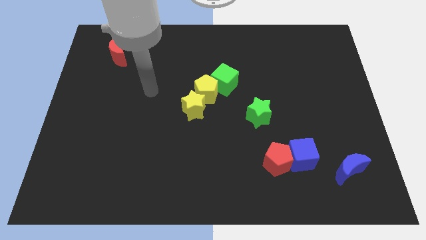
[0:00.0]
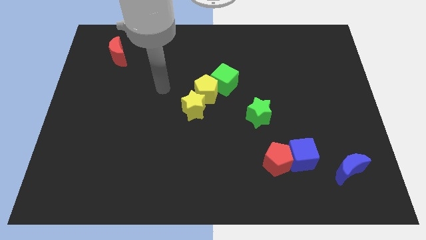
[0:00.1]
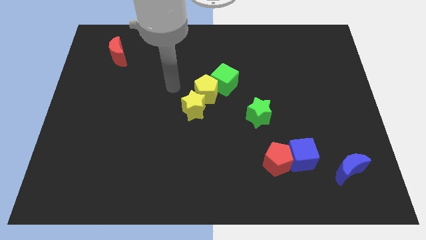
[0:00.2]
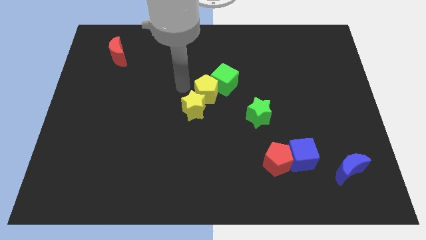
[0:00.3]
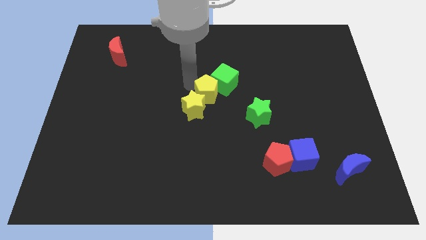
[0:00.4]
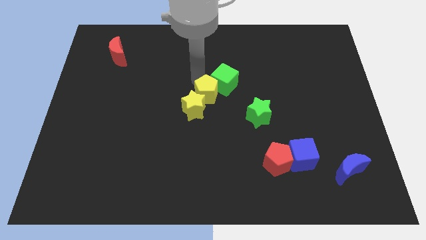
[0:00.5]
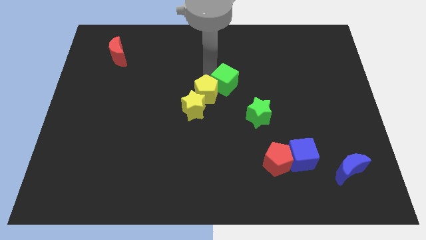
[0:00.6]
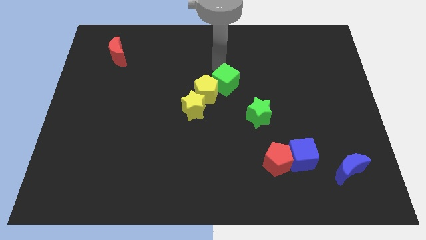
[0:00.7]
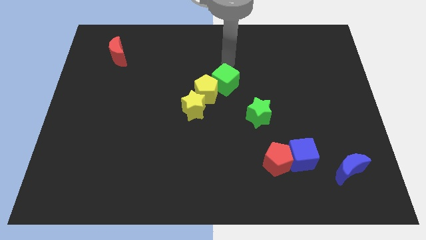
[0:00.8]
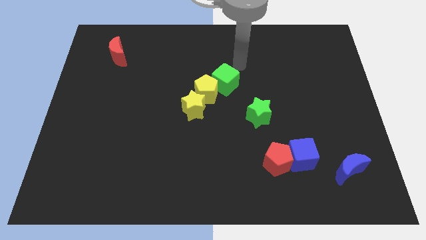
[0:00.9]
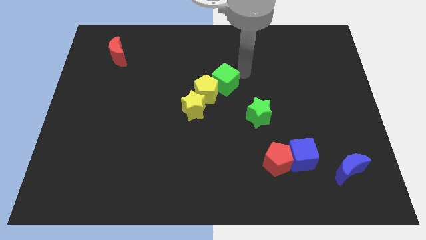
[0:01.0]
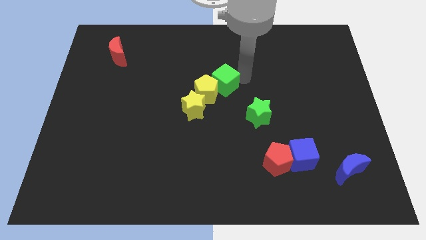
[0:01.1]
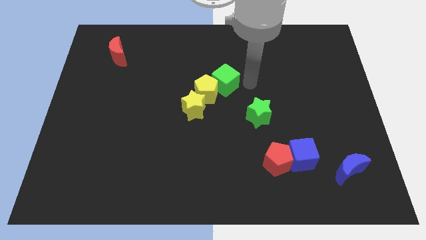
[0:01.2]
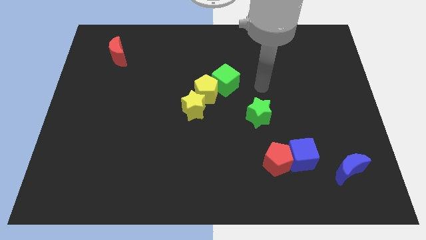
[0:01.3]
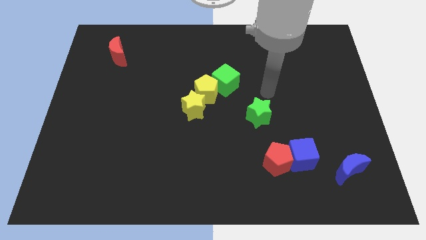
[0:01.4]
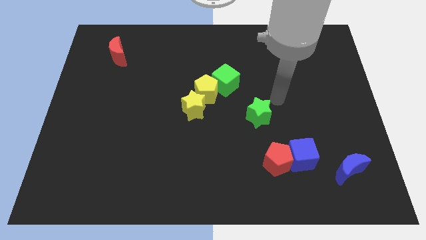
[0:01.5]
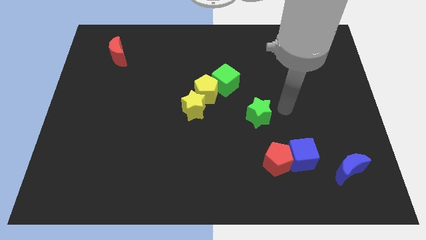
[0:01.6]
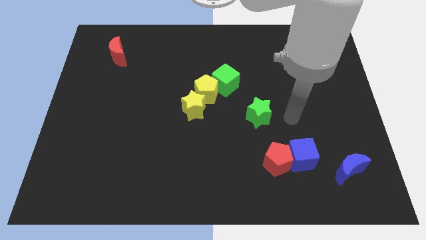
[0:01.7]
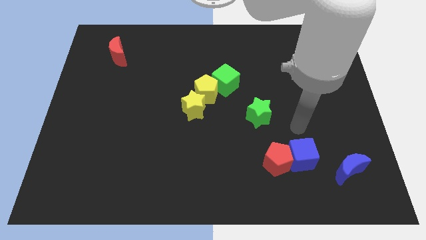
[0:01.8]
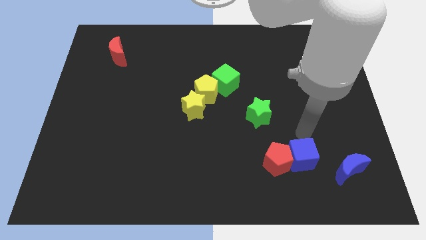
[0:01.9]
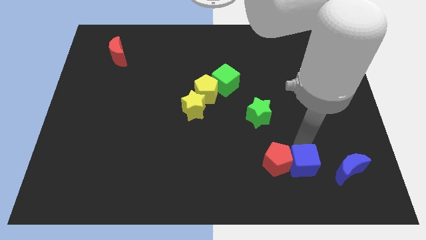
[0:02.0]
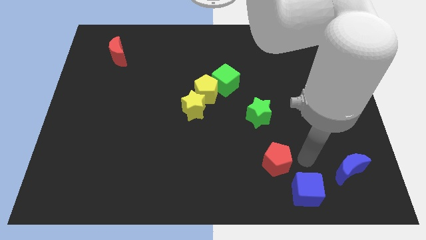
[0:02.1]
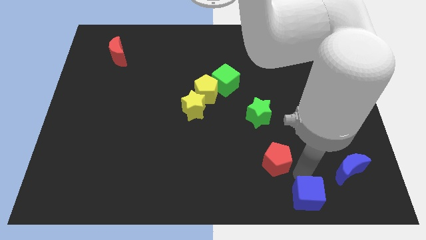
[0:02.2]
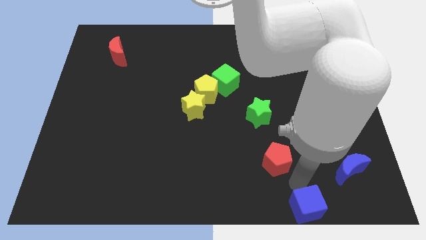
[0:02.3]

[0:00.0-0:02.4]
pull the red pentagon apart from the blue cube

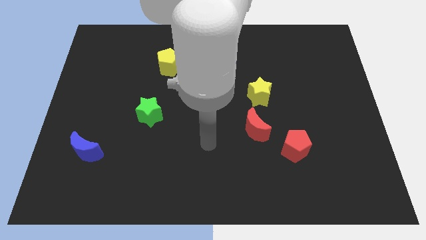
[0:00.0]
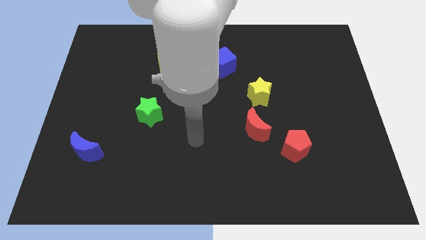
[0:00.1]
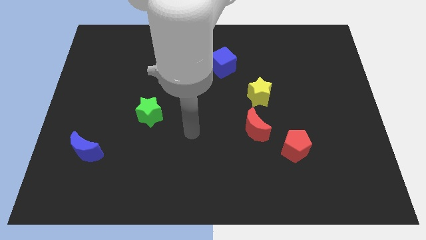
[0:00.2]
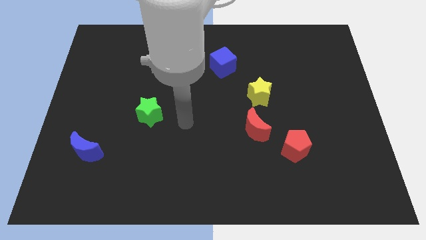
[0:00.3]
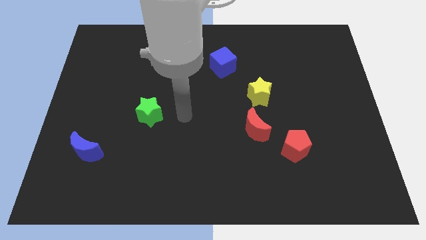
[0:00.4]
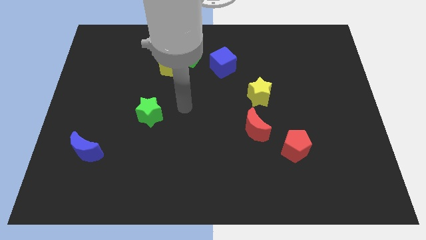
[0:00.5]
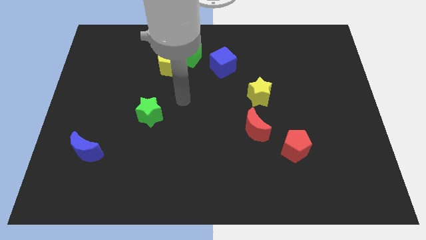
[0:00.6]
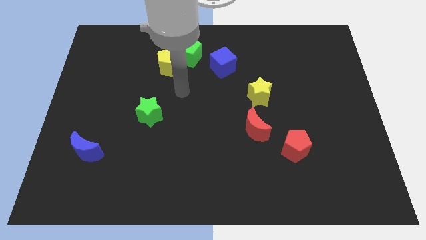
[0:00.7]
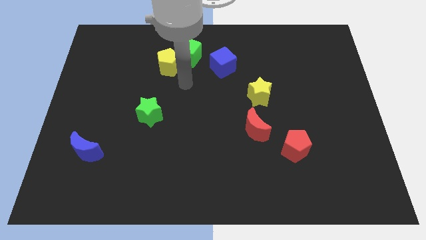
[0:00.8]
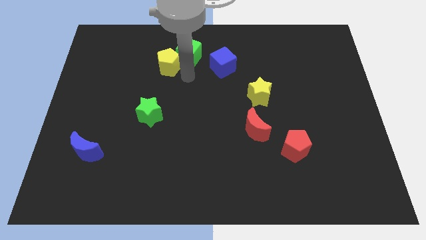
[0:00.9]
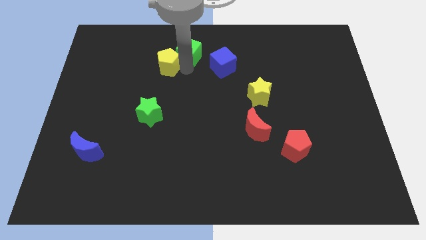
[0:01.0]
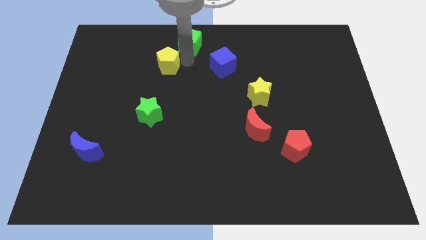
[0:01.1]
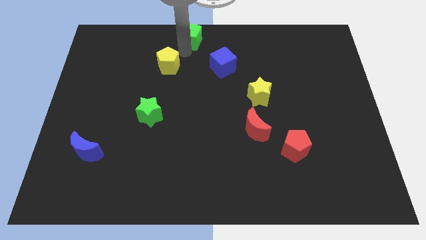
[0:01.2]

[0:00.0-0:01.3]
separate the yellow pentagon from the green cube

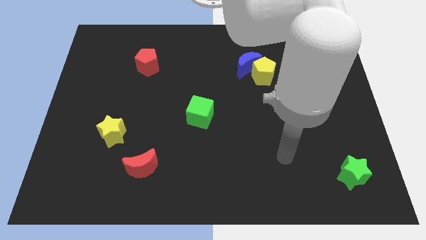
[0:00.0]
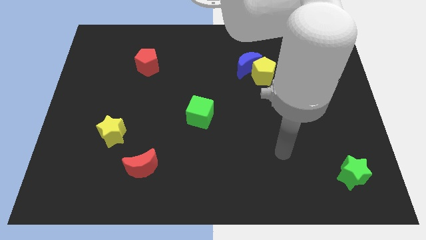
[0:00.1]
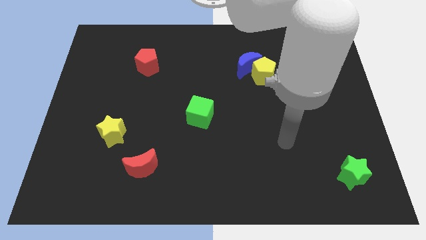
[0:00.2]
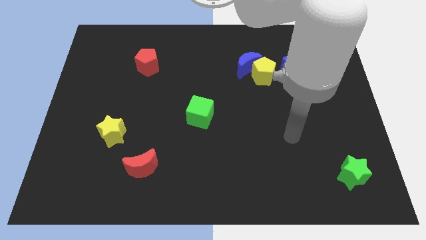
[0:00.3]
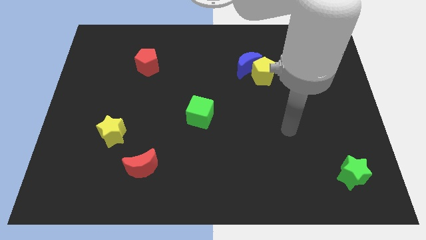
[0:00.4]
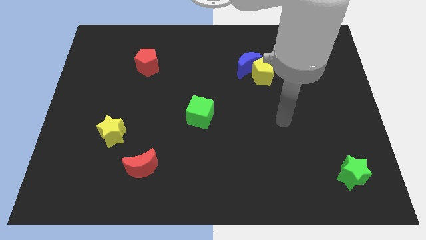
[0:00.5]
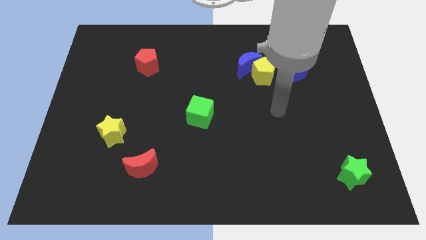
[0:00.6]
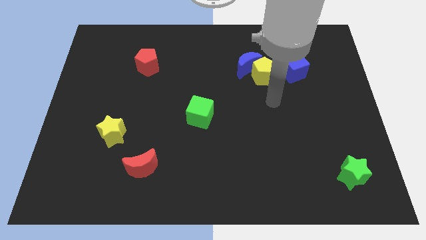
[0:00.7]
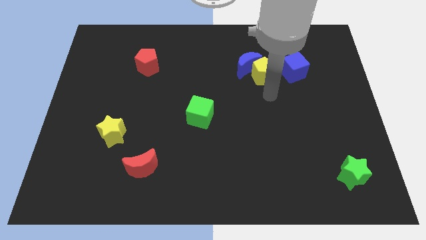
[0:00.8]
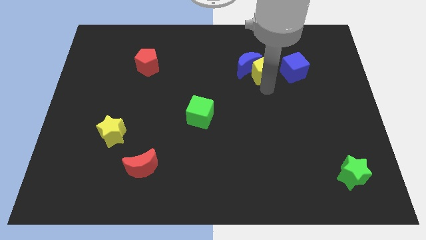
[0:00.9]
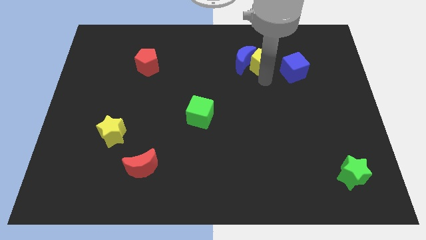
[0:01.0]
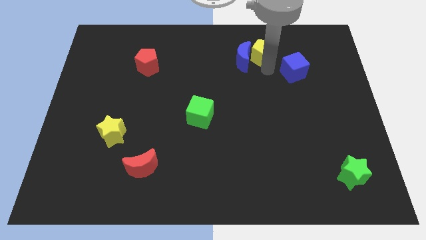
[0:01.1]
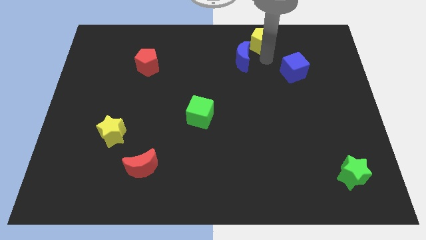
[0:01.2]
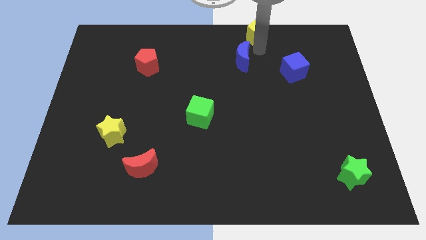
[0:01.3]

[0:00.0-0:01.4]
separate the blue moon from the yellow pentagon

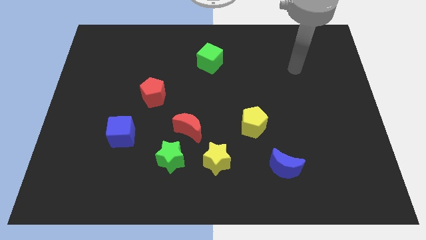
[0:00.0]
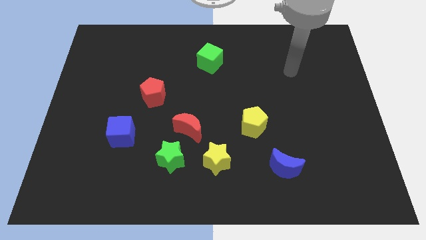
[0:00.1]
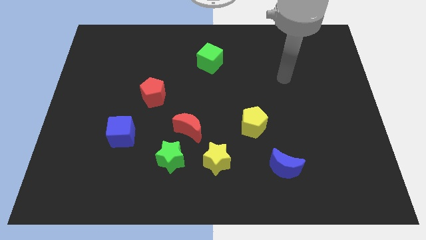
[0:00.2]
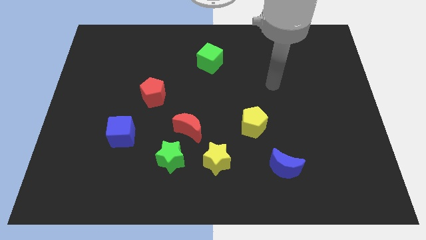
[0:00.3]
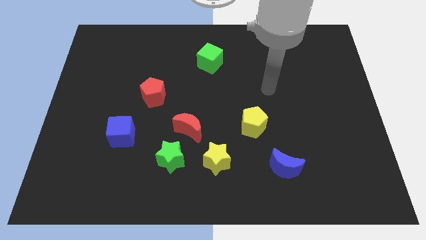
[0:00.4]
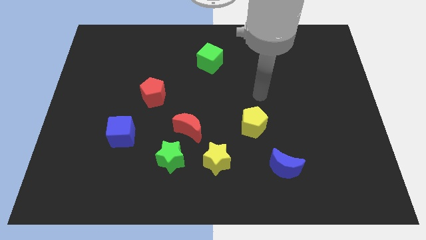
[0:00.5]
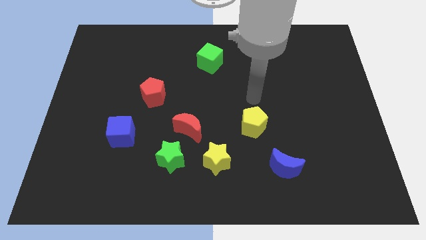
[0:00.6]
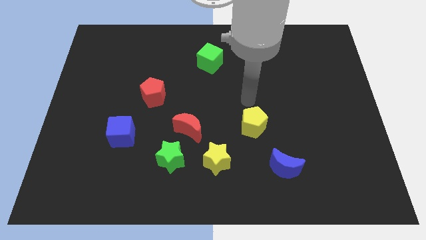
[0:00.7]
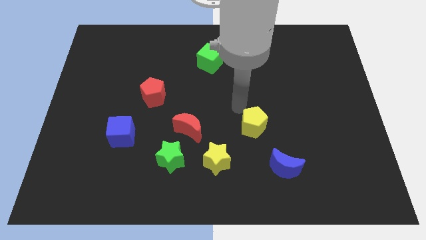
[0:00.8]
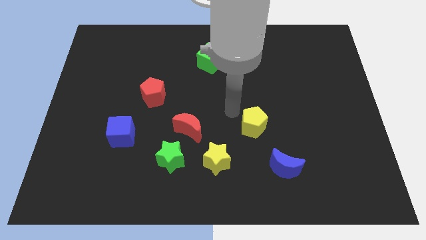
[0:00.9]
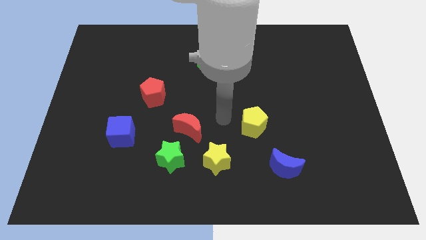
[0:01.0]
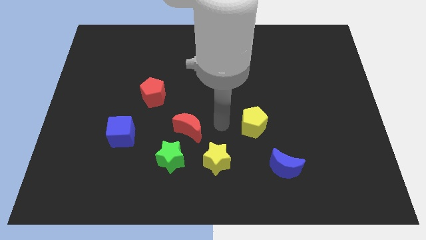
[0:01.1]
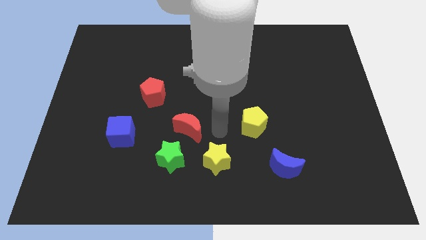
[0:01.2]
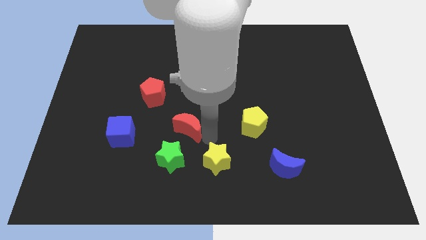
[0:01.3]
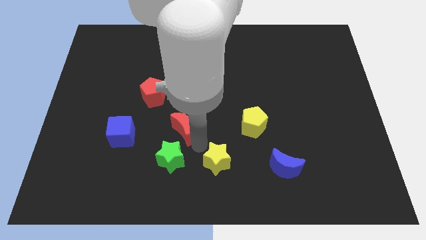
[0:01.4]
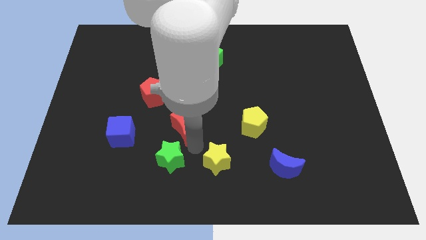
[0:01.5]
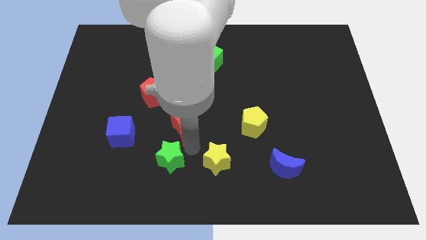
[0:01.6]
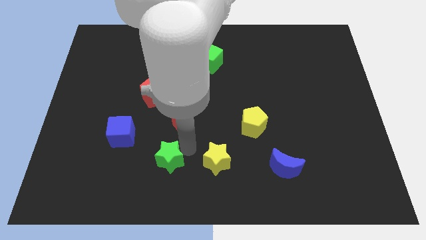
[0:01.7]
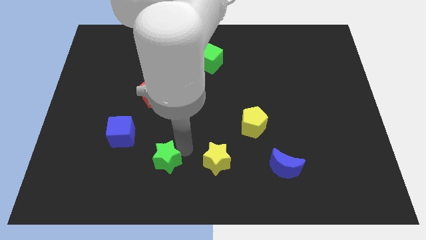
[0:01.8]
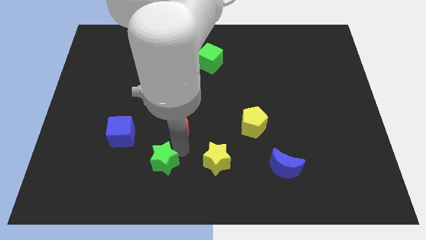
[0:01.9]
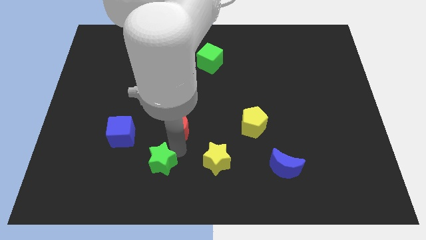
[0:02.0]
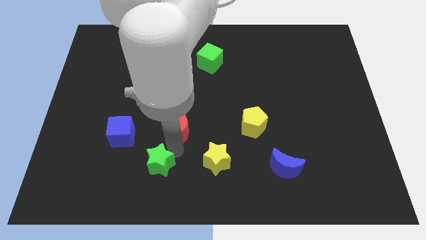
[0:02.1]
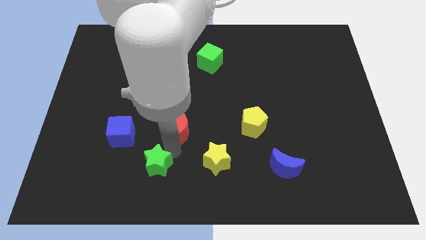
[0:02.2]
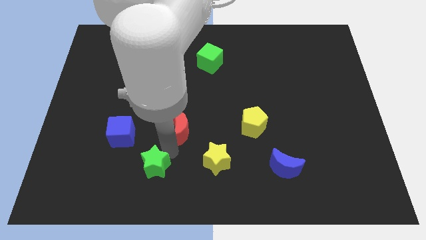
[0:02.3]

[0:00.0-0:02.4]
separate the green star from the red moon and yellow star

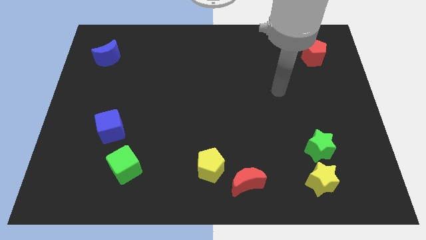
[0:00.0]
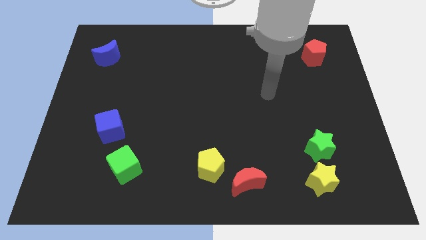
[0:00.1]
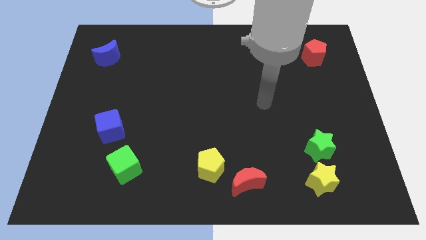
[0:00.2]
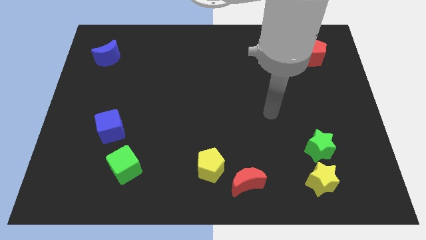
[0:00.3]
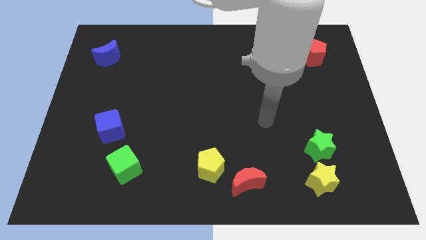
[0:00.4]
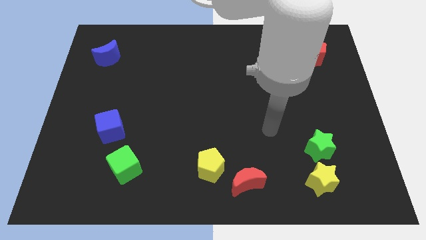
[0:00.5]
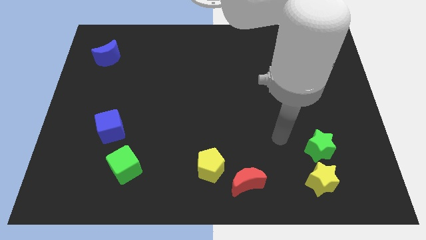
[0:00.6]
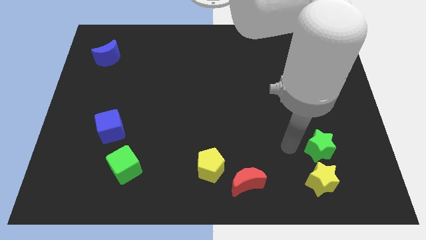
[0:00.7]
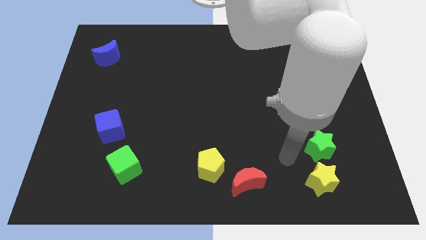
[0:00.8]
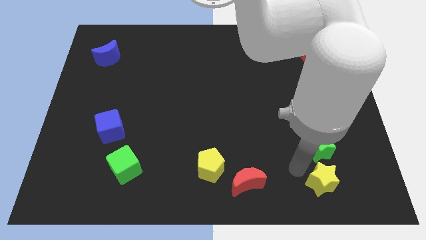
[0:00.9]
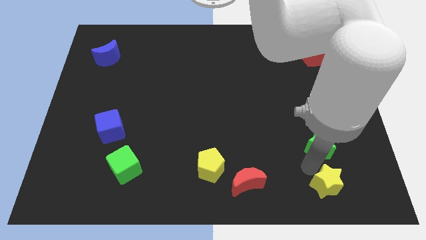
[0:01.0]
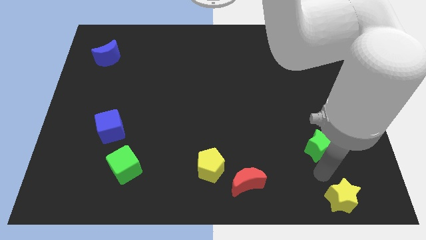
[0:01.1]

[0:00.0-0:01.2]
move the green star away from the yellow star

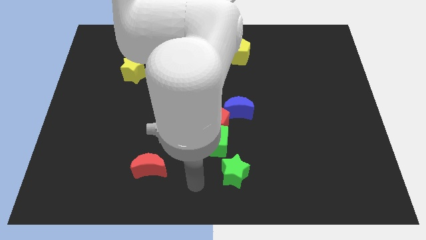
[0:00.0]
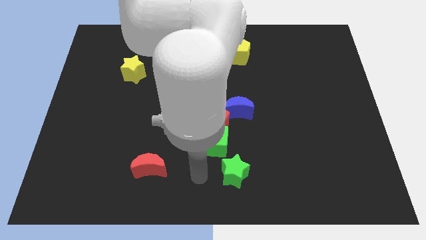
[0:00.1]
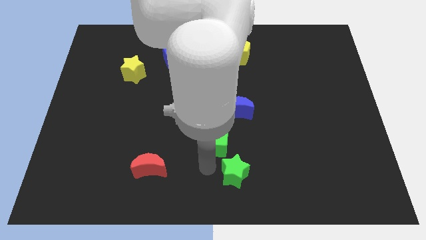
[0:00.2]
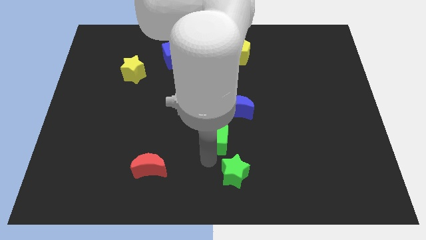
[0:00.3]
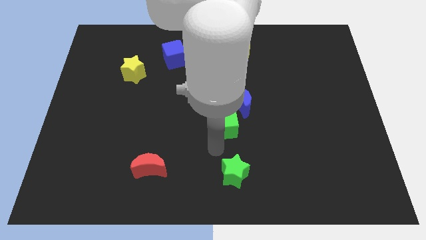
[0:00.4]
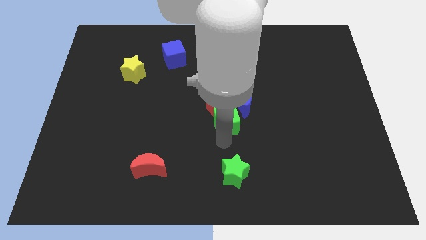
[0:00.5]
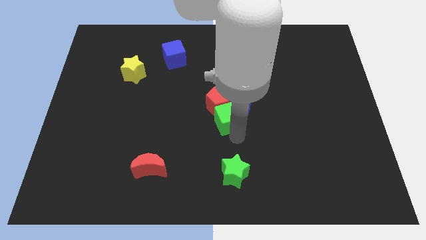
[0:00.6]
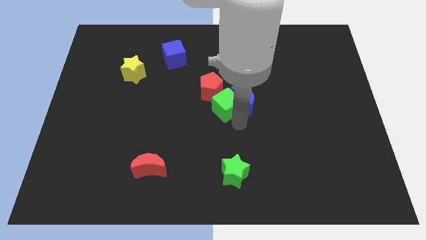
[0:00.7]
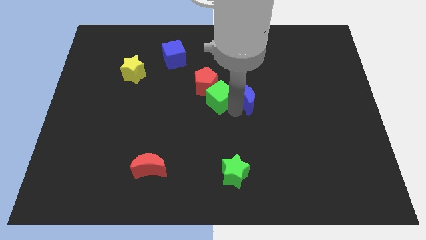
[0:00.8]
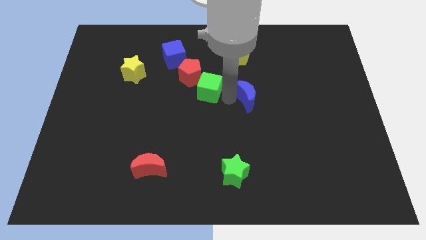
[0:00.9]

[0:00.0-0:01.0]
move the red pentagon away from the green cube and blue moon
